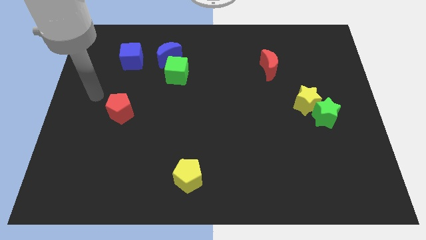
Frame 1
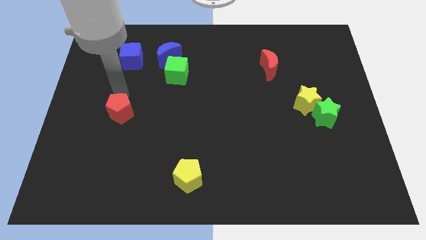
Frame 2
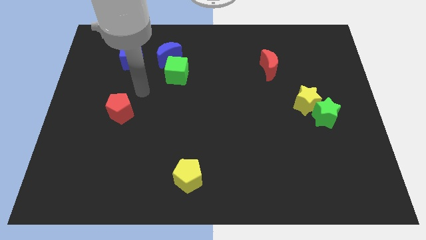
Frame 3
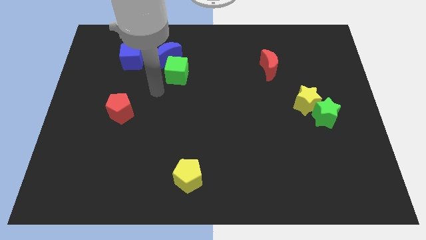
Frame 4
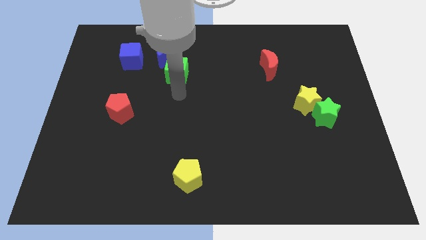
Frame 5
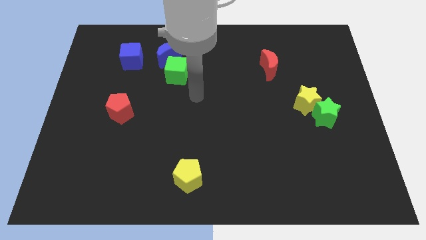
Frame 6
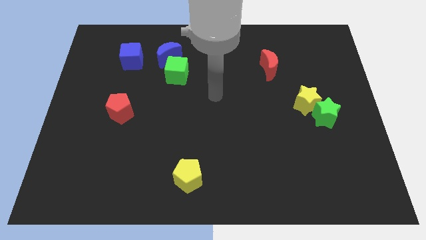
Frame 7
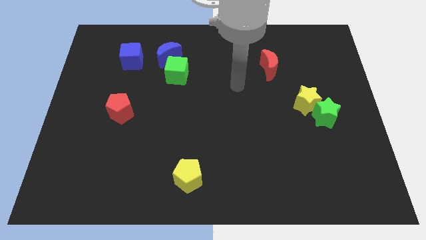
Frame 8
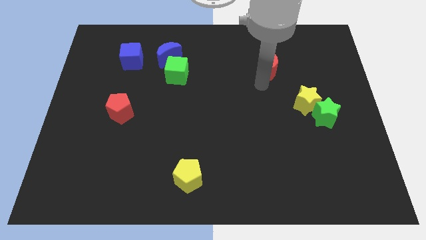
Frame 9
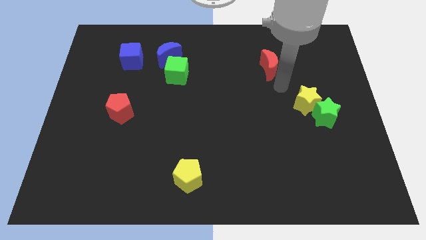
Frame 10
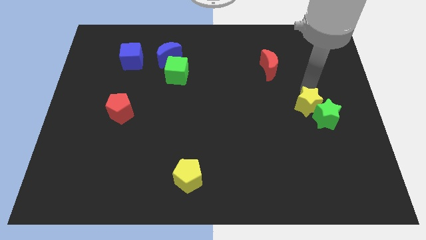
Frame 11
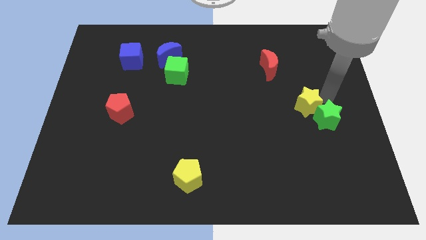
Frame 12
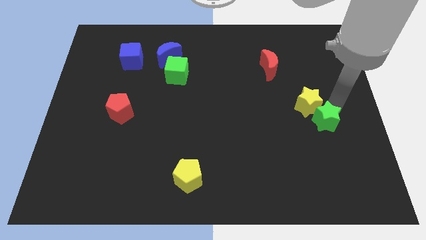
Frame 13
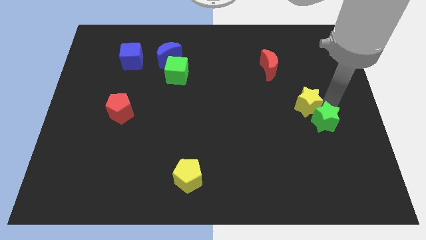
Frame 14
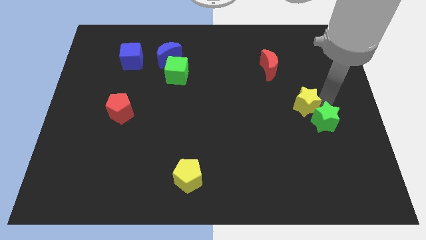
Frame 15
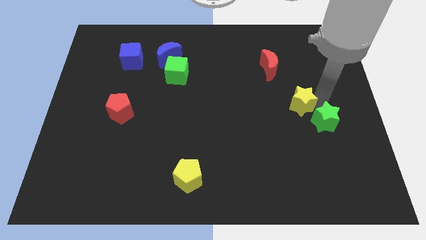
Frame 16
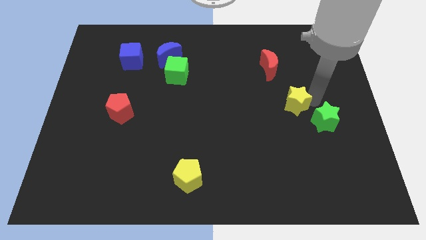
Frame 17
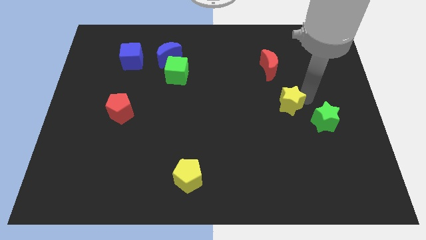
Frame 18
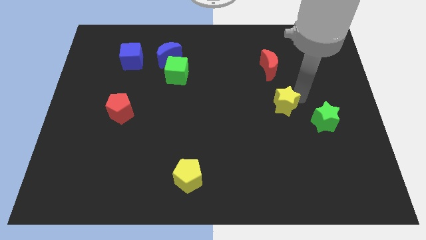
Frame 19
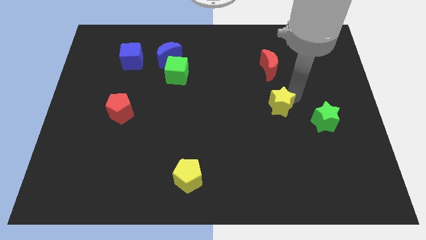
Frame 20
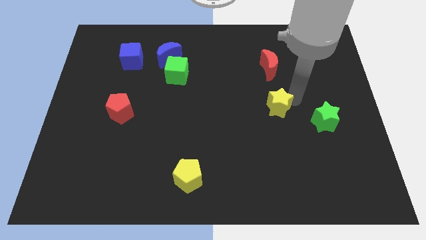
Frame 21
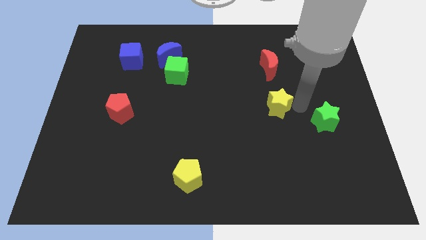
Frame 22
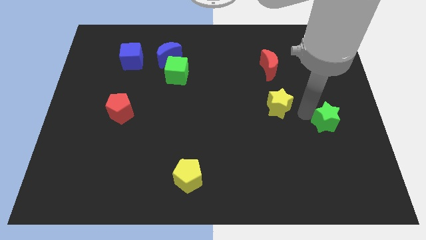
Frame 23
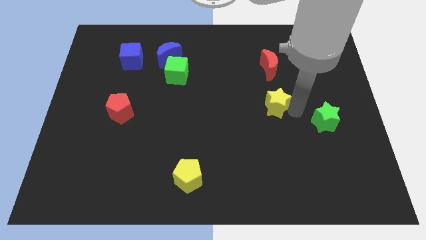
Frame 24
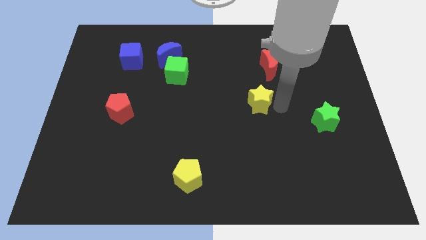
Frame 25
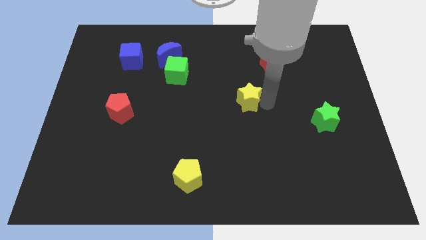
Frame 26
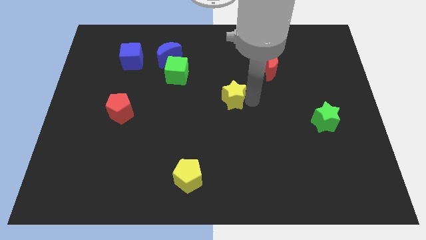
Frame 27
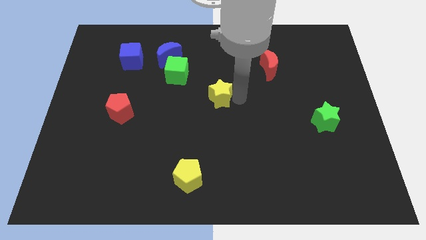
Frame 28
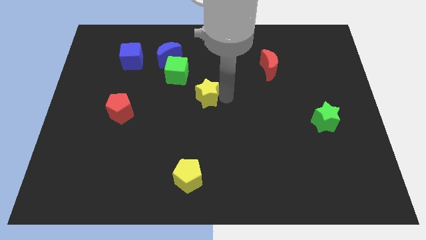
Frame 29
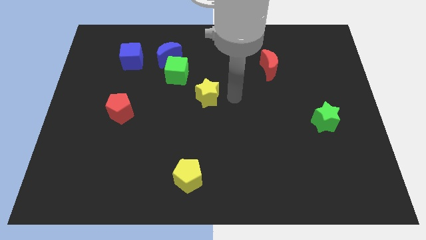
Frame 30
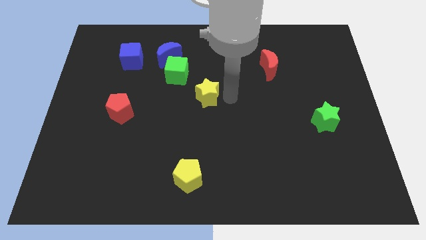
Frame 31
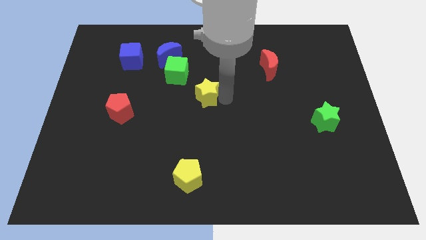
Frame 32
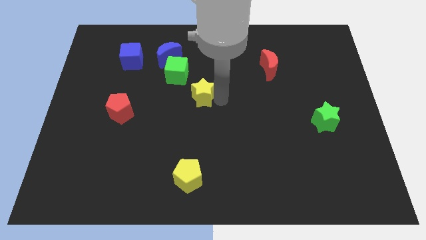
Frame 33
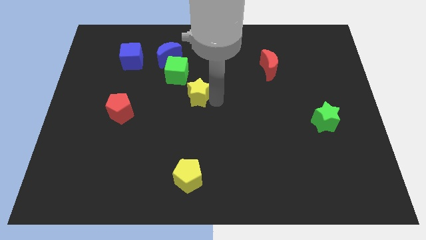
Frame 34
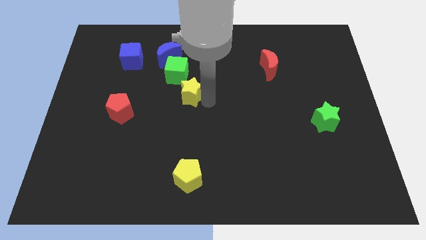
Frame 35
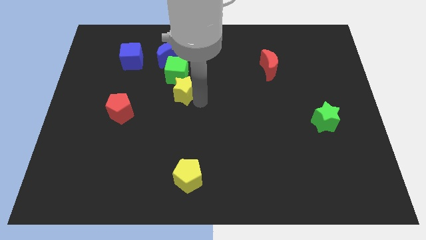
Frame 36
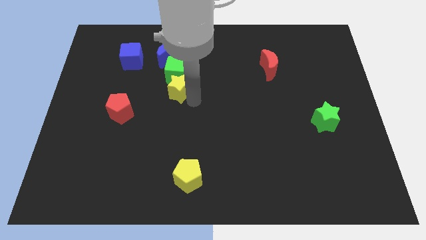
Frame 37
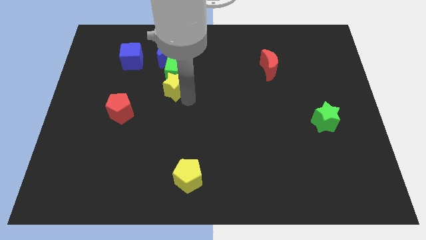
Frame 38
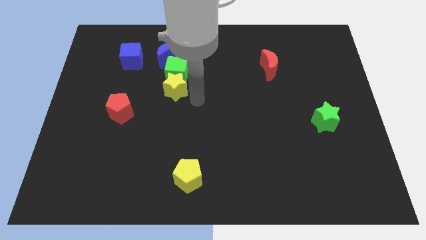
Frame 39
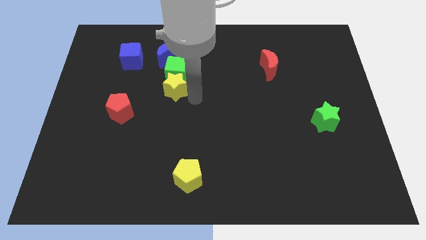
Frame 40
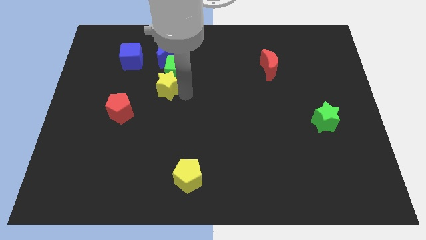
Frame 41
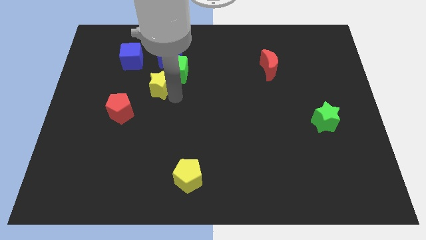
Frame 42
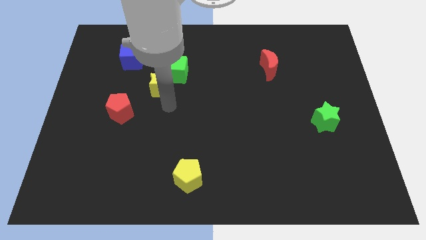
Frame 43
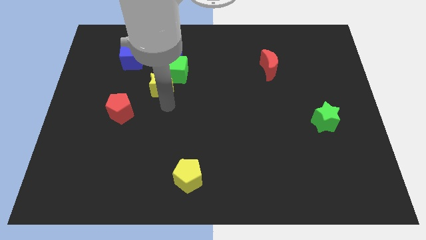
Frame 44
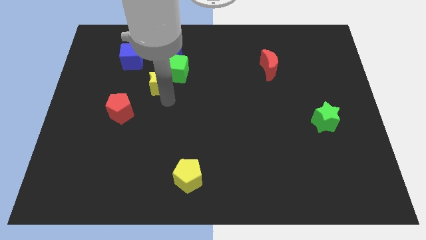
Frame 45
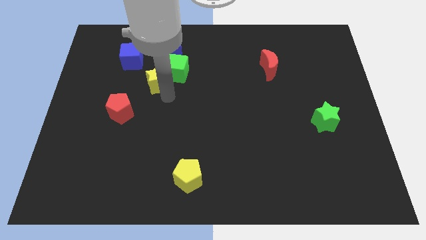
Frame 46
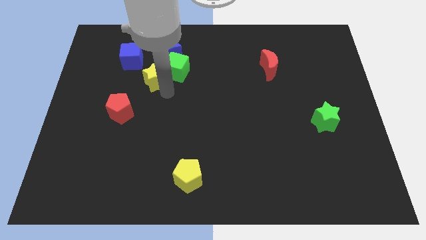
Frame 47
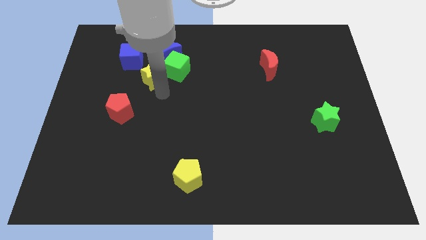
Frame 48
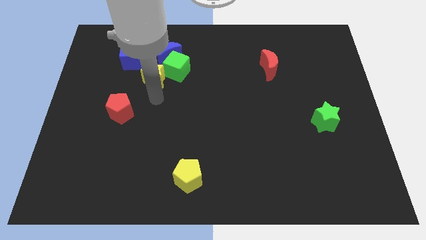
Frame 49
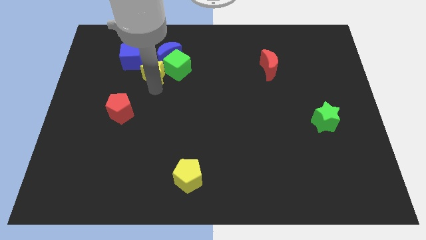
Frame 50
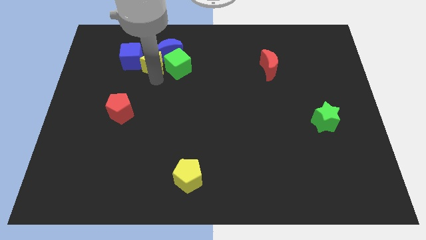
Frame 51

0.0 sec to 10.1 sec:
push the yellow star towards the blue cube

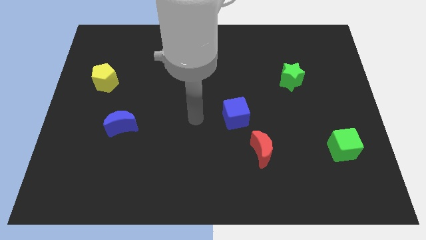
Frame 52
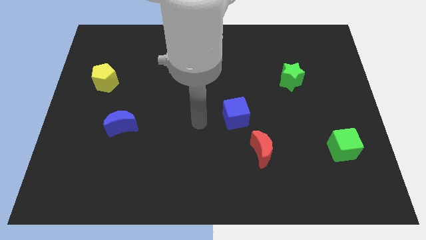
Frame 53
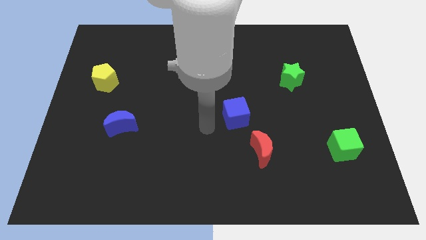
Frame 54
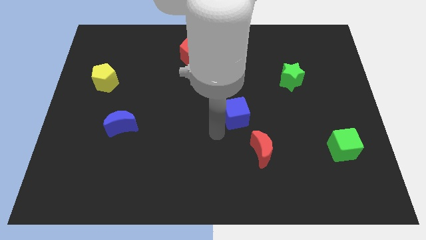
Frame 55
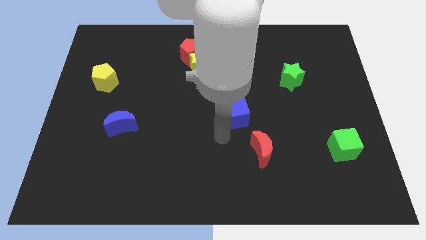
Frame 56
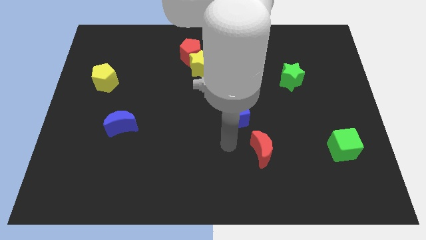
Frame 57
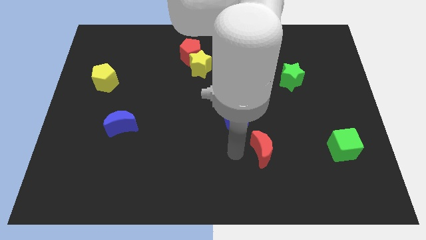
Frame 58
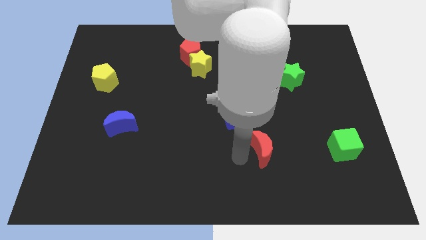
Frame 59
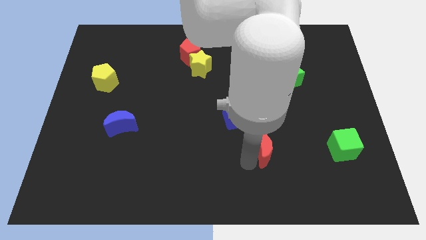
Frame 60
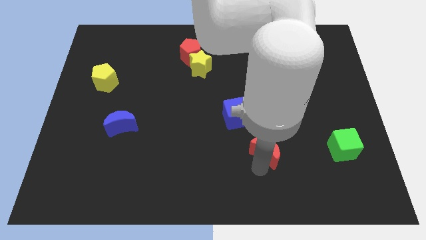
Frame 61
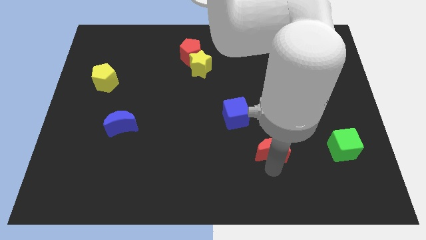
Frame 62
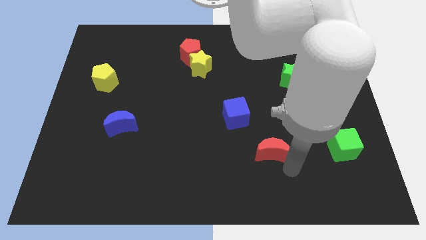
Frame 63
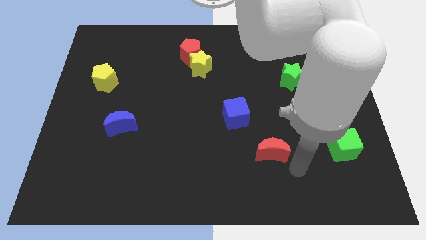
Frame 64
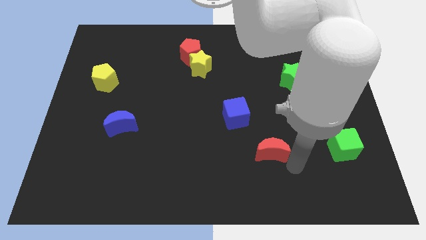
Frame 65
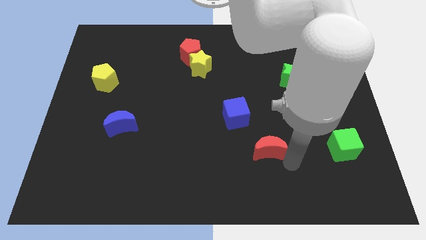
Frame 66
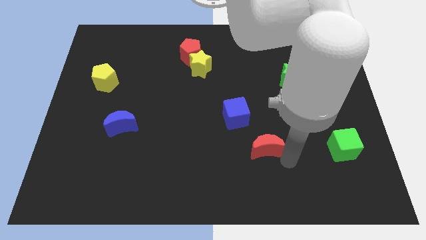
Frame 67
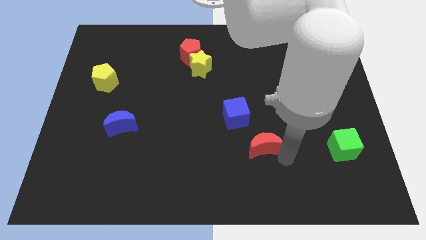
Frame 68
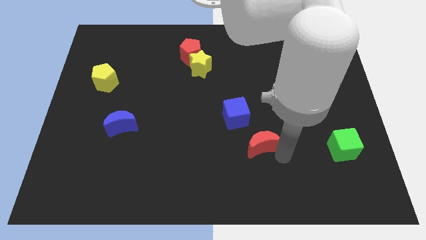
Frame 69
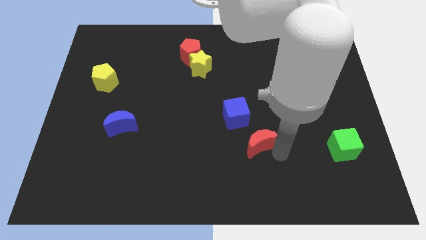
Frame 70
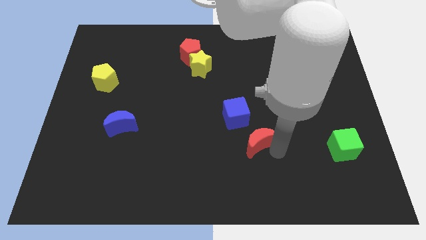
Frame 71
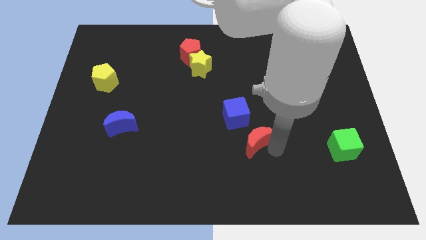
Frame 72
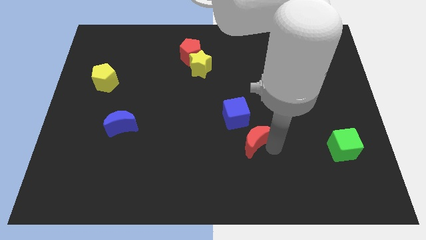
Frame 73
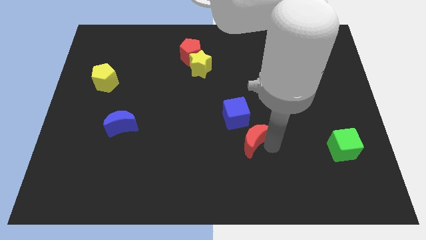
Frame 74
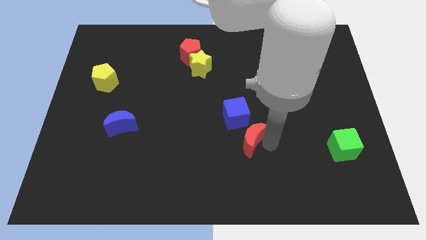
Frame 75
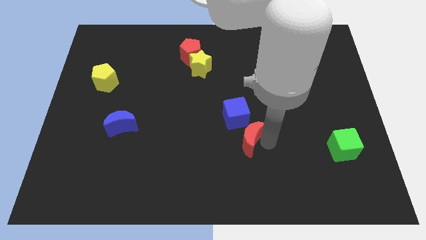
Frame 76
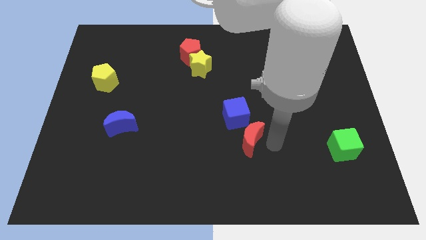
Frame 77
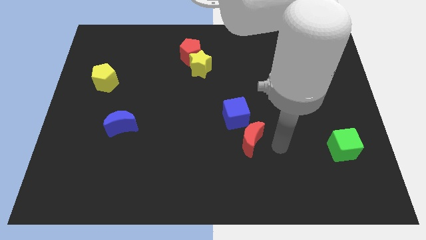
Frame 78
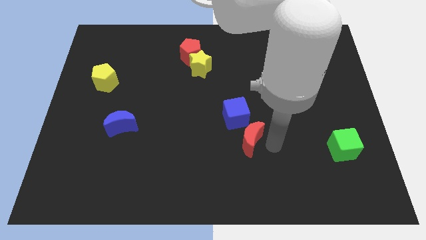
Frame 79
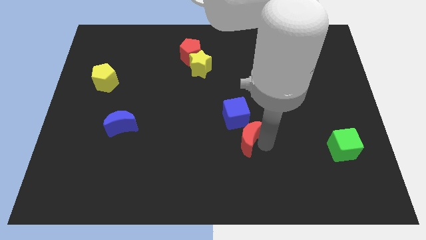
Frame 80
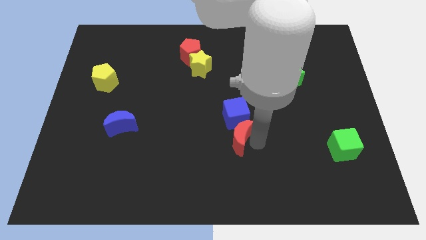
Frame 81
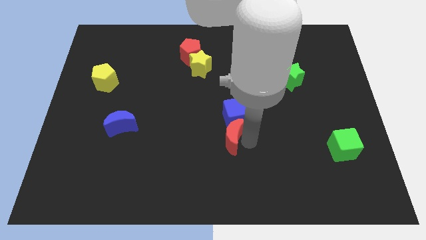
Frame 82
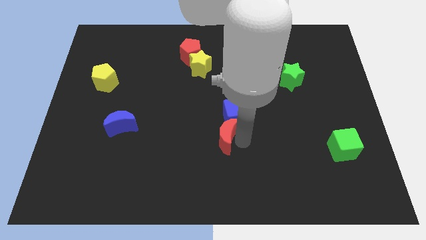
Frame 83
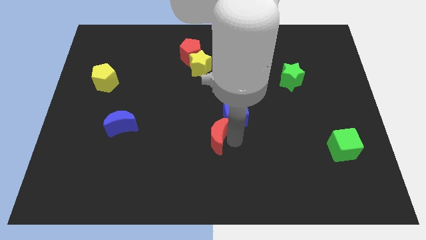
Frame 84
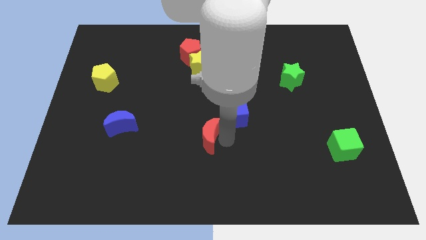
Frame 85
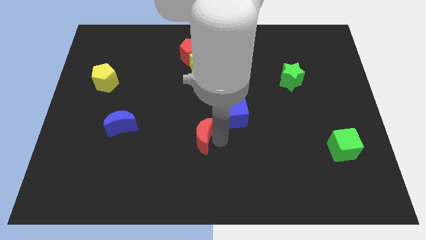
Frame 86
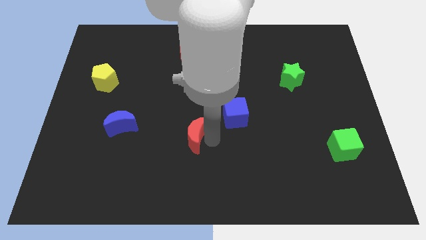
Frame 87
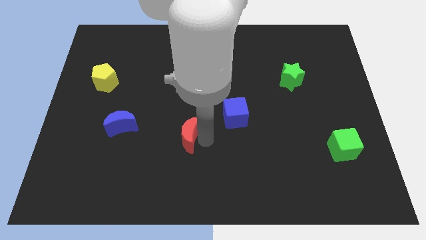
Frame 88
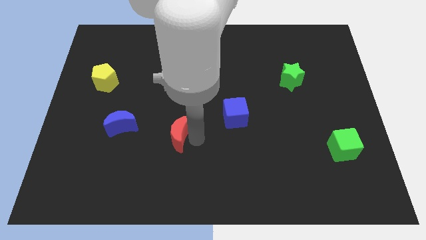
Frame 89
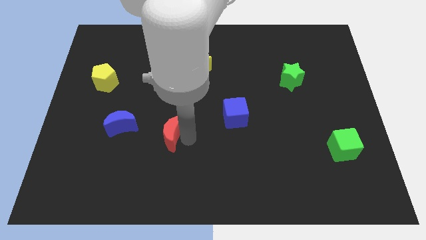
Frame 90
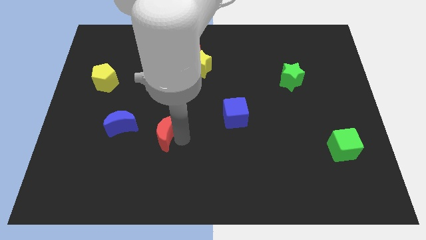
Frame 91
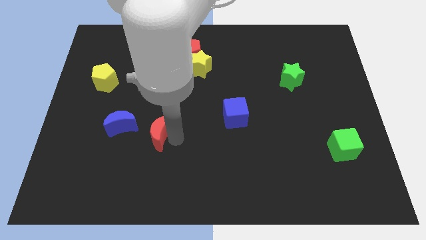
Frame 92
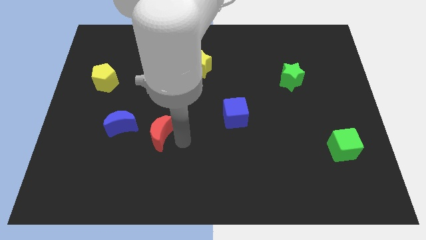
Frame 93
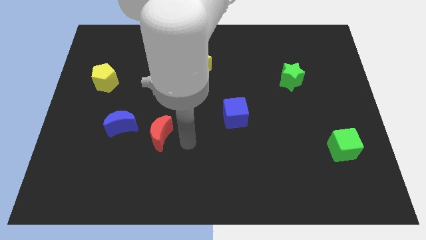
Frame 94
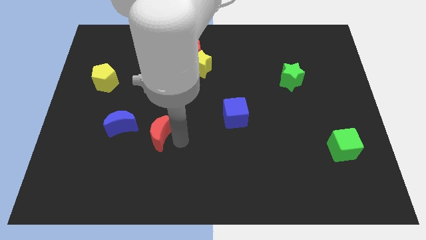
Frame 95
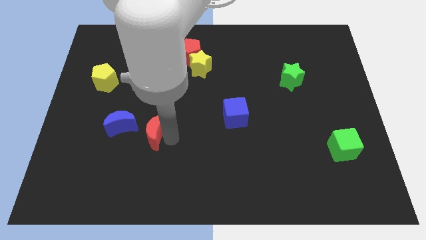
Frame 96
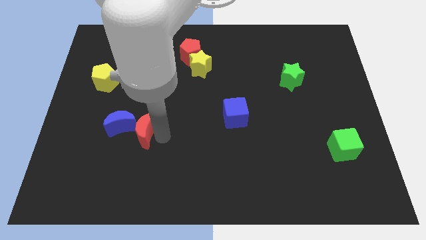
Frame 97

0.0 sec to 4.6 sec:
push the red moon to the blue moon
